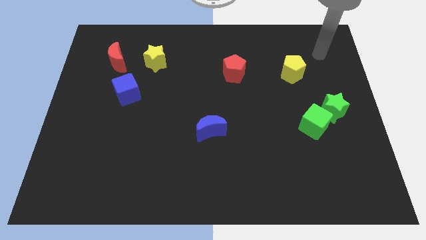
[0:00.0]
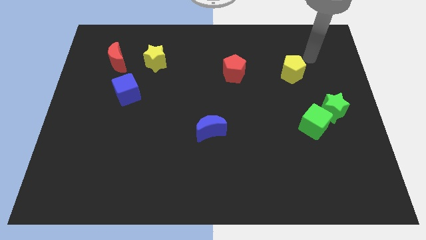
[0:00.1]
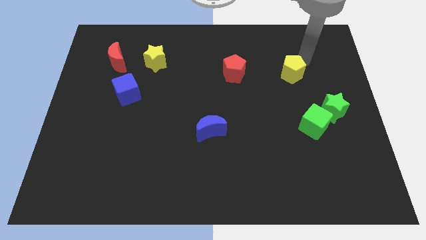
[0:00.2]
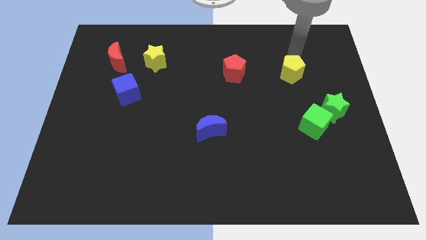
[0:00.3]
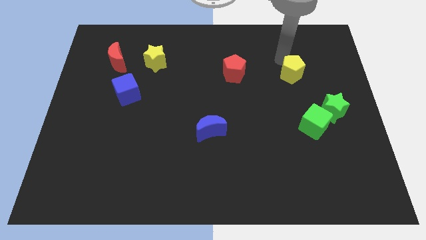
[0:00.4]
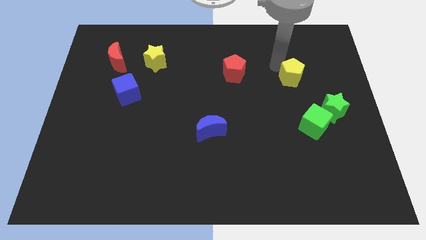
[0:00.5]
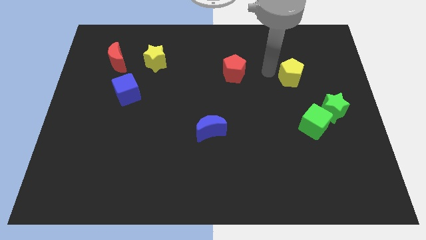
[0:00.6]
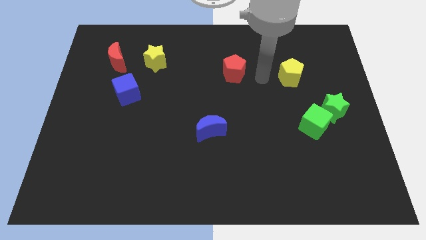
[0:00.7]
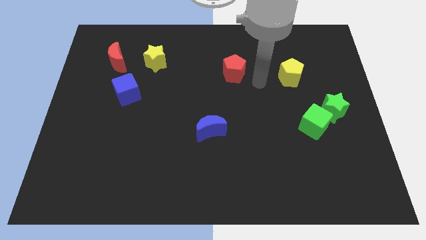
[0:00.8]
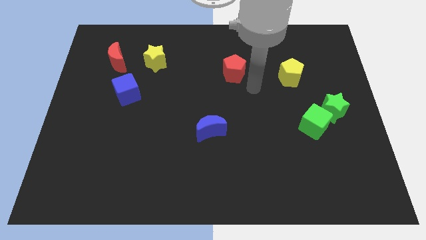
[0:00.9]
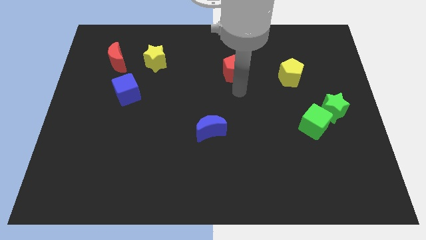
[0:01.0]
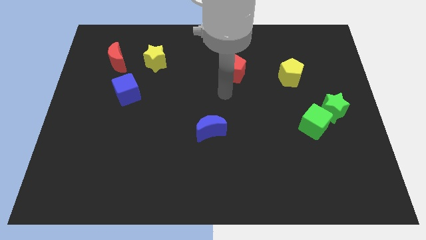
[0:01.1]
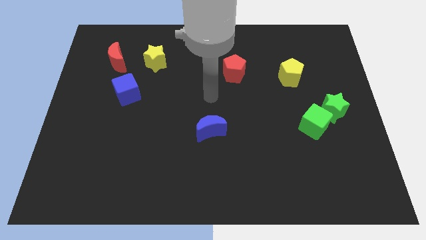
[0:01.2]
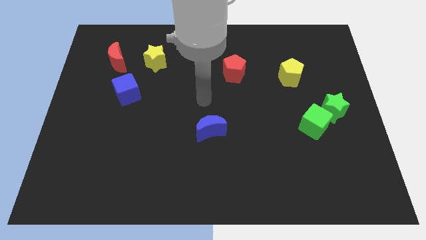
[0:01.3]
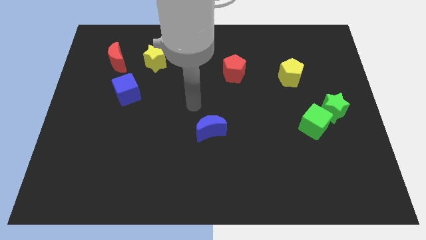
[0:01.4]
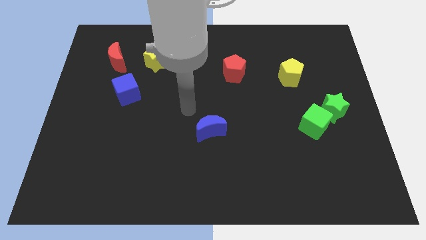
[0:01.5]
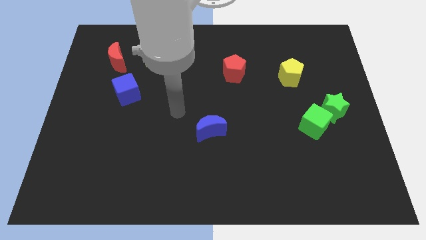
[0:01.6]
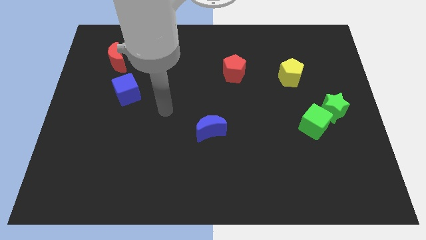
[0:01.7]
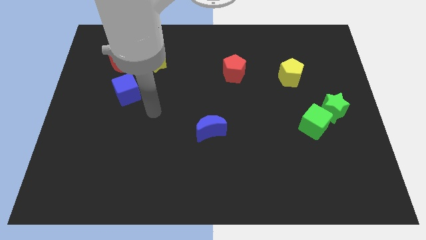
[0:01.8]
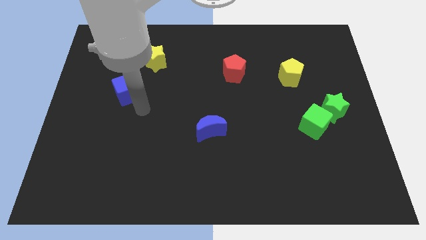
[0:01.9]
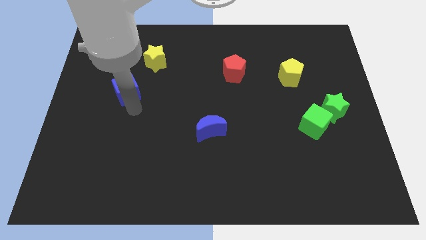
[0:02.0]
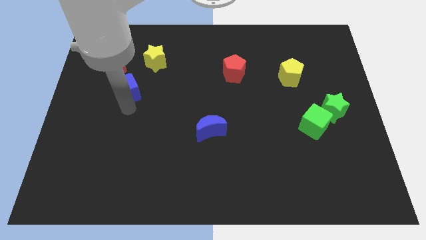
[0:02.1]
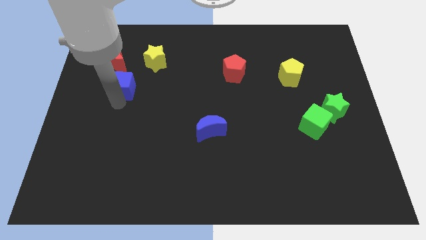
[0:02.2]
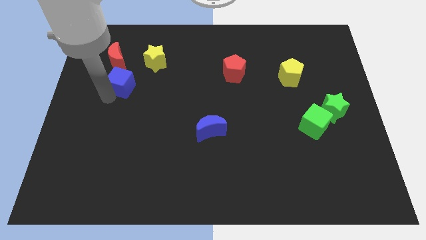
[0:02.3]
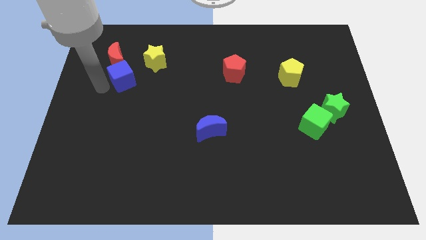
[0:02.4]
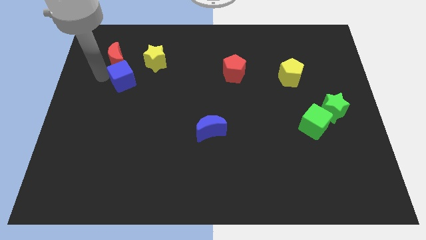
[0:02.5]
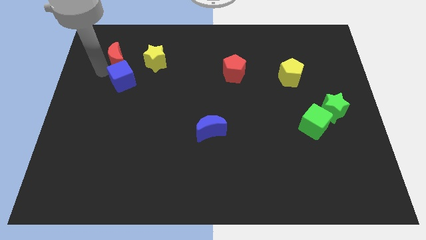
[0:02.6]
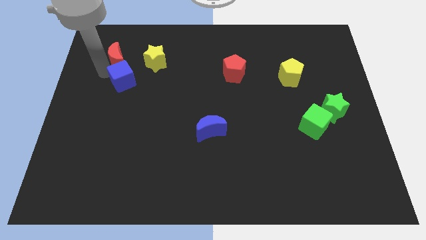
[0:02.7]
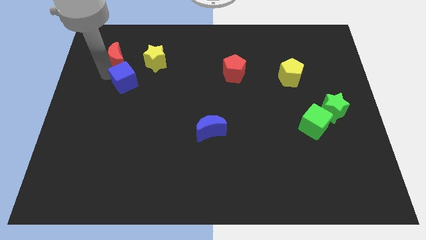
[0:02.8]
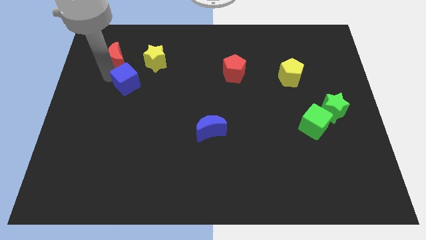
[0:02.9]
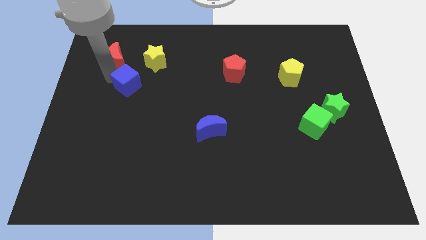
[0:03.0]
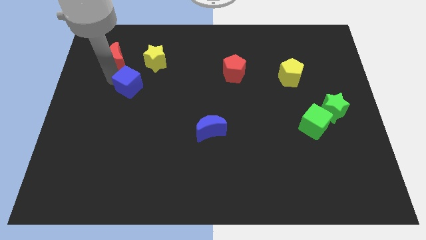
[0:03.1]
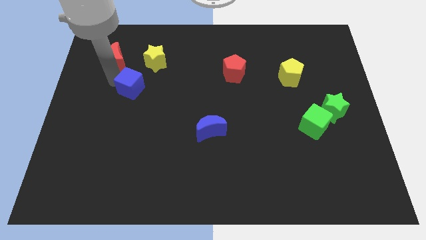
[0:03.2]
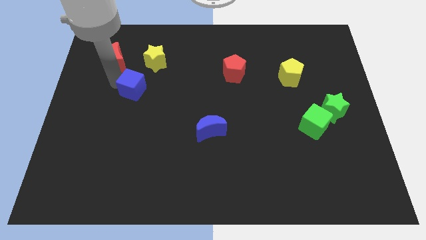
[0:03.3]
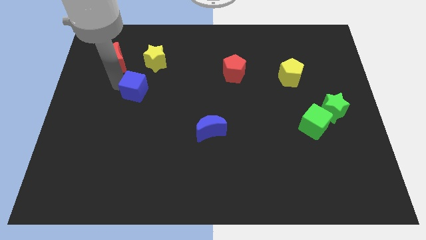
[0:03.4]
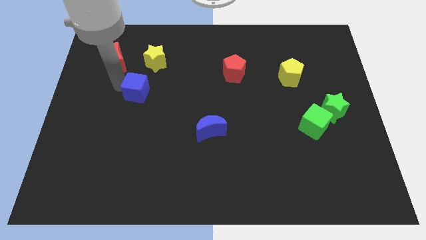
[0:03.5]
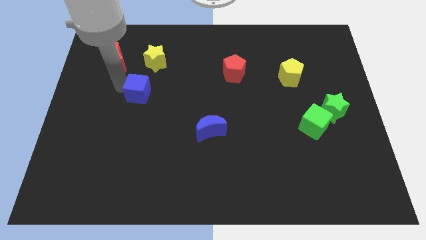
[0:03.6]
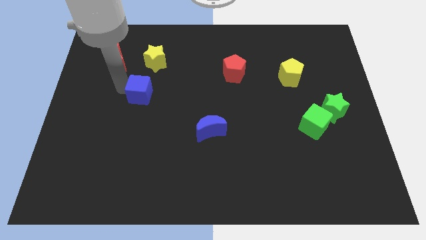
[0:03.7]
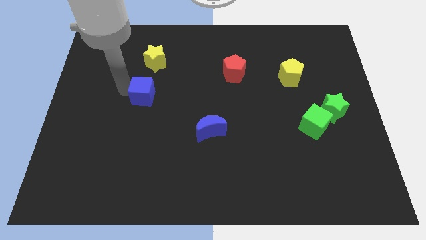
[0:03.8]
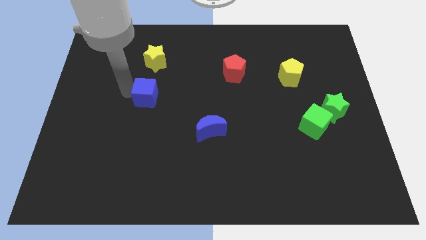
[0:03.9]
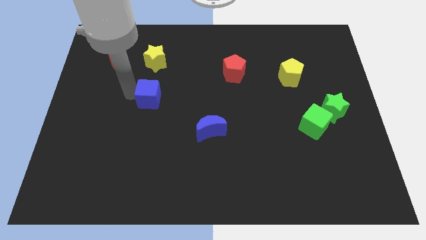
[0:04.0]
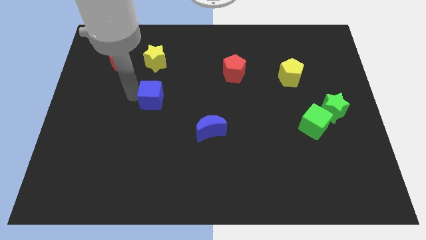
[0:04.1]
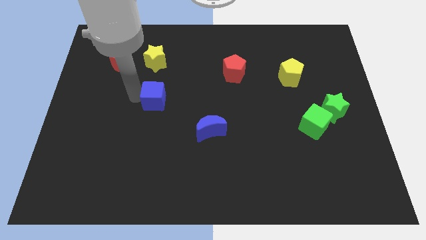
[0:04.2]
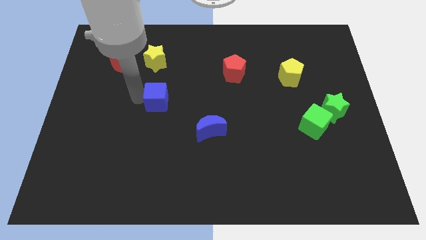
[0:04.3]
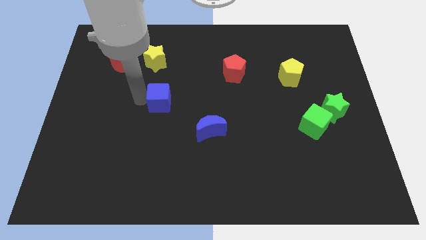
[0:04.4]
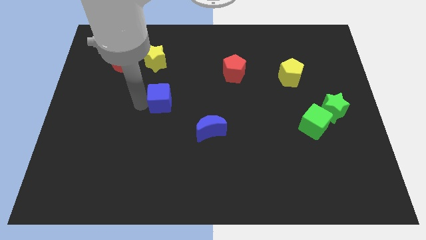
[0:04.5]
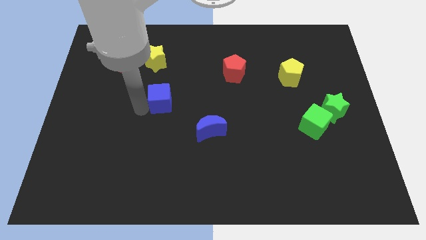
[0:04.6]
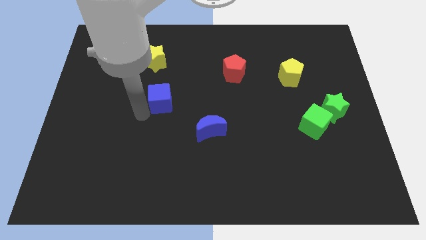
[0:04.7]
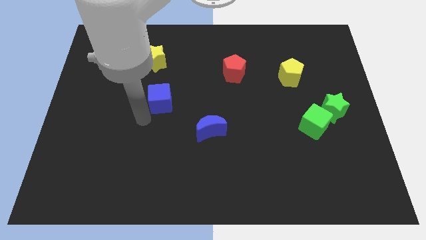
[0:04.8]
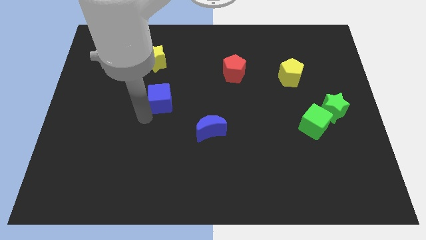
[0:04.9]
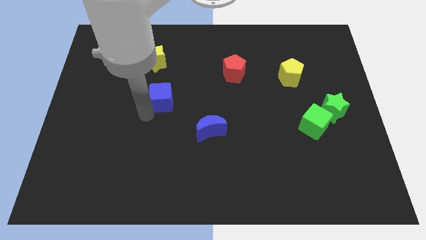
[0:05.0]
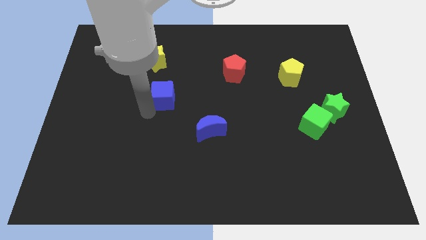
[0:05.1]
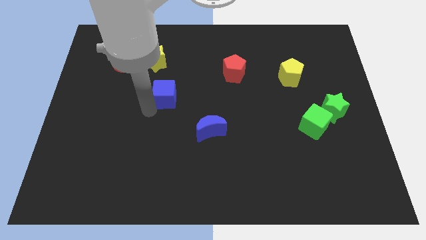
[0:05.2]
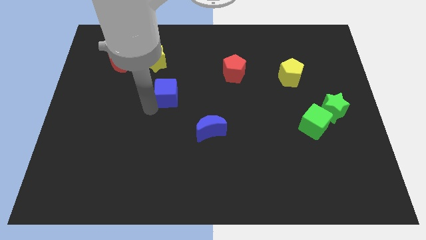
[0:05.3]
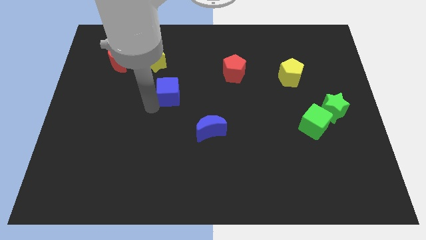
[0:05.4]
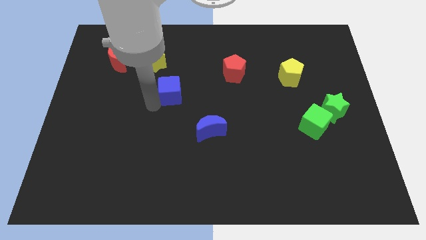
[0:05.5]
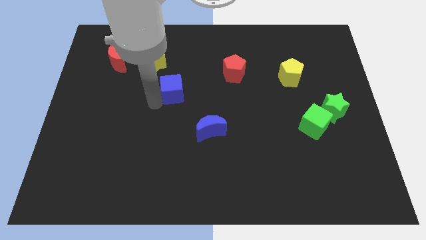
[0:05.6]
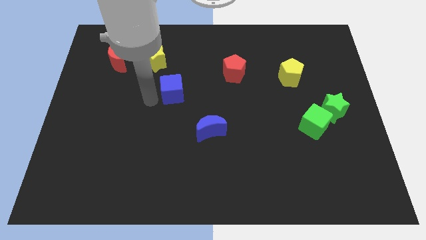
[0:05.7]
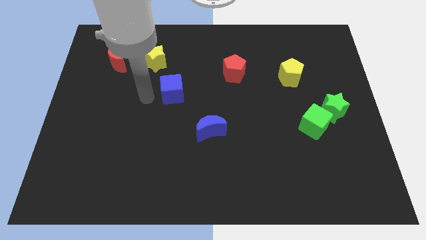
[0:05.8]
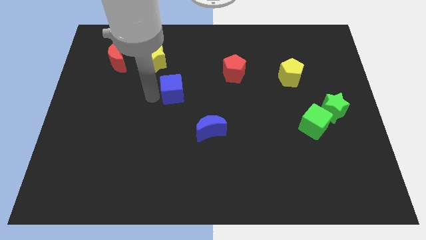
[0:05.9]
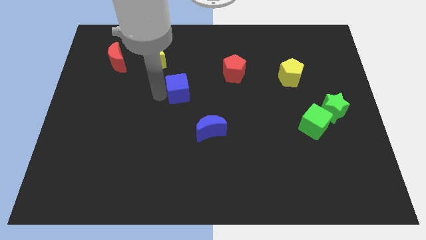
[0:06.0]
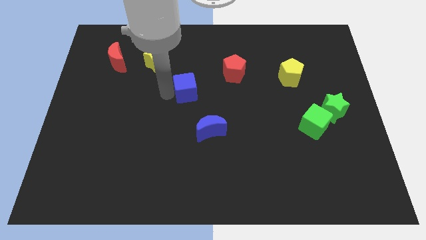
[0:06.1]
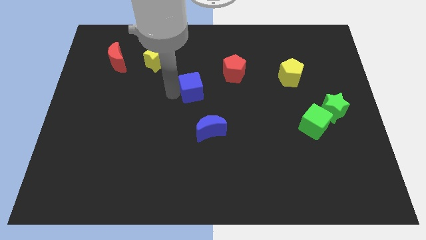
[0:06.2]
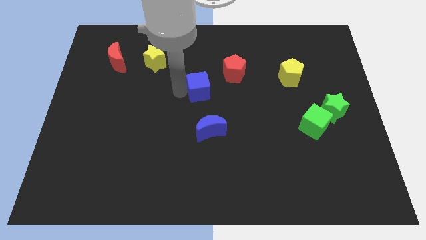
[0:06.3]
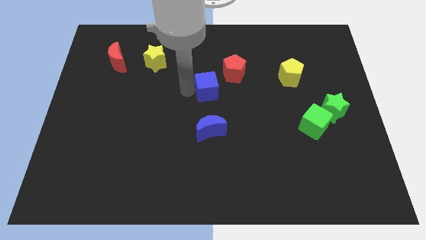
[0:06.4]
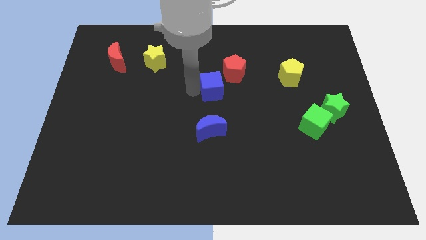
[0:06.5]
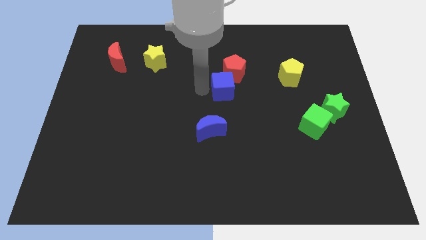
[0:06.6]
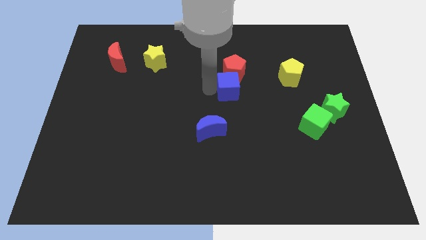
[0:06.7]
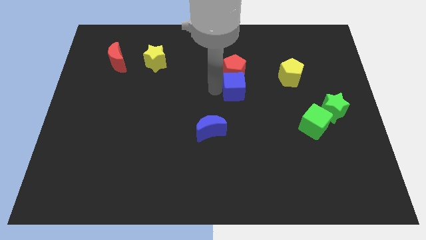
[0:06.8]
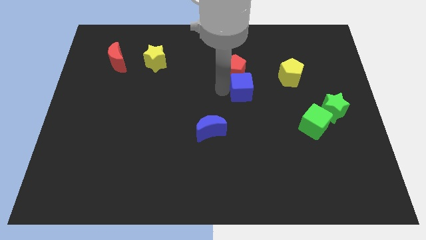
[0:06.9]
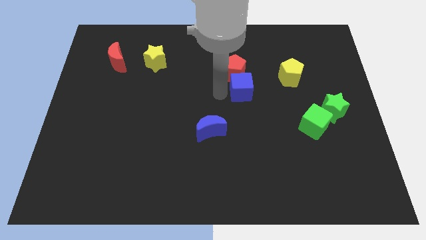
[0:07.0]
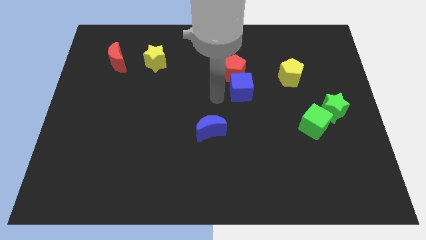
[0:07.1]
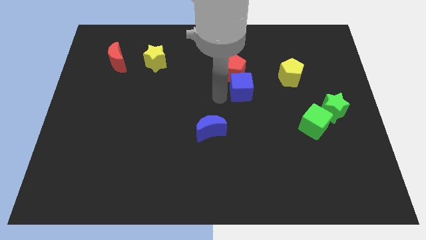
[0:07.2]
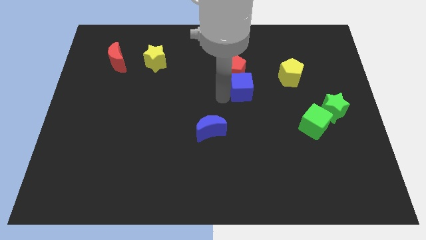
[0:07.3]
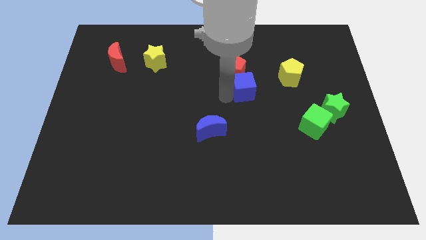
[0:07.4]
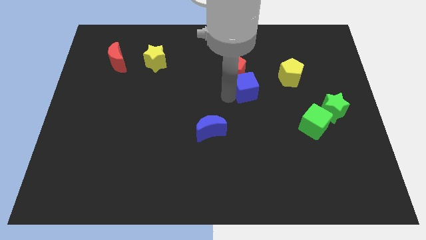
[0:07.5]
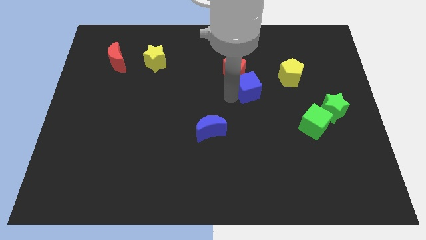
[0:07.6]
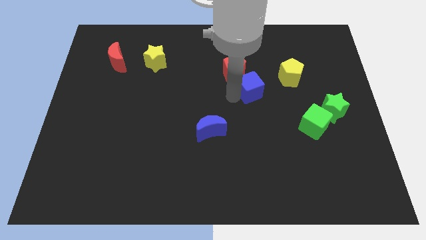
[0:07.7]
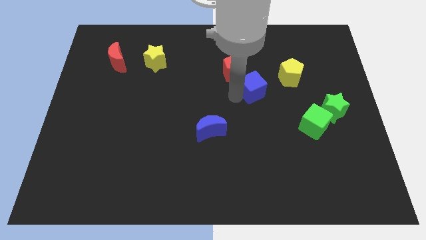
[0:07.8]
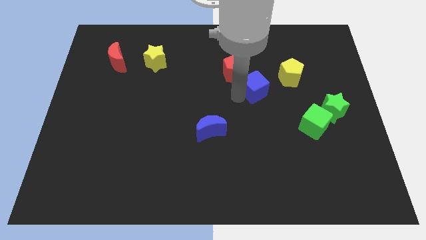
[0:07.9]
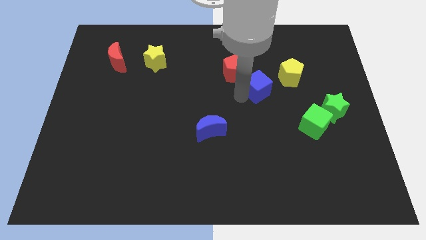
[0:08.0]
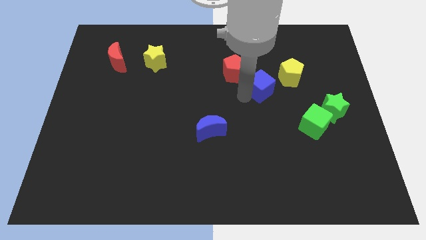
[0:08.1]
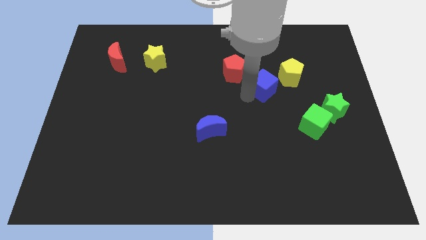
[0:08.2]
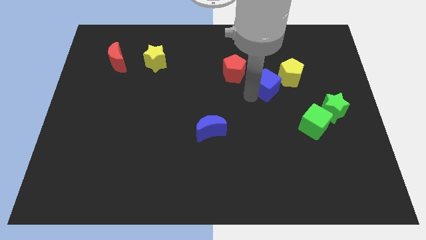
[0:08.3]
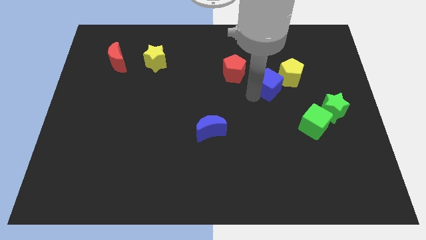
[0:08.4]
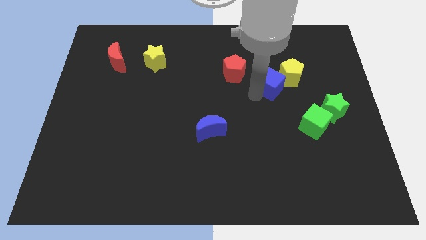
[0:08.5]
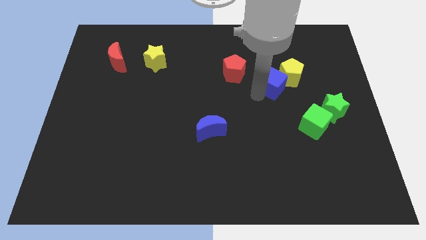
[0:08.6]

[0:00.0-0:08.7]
put the blue cube close to the yellow pentagon
